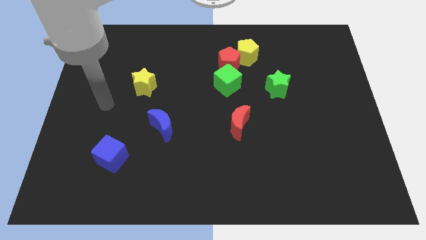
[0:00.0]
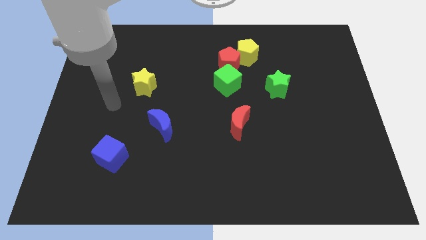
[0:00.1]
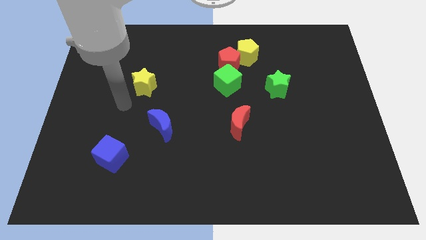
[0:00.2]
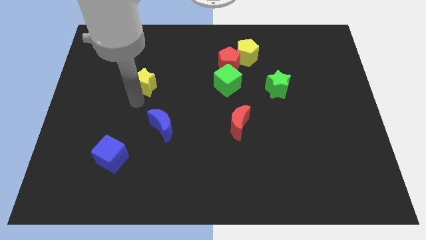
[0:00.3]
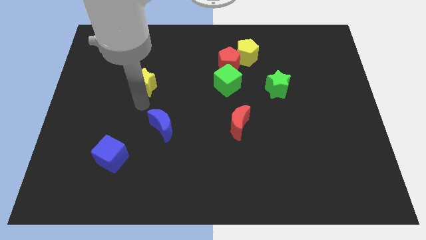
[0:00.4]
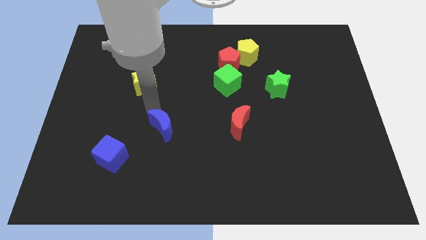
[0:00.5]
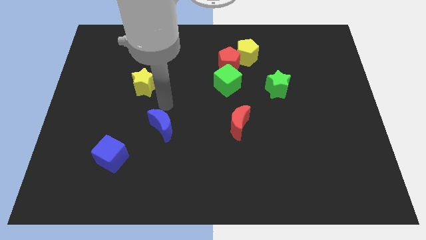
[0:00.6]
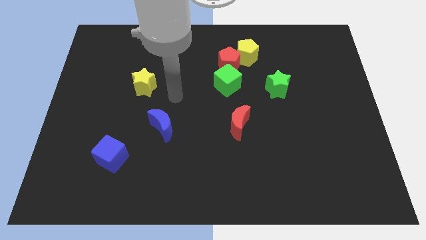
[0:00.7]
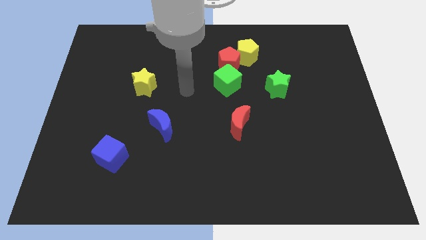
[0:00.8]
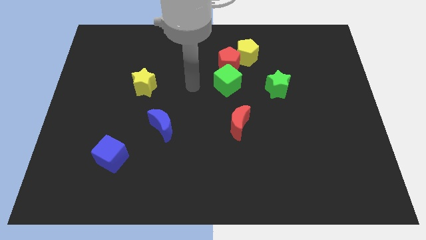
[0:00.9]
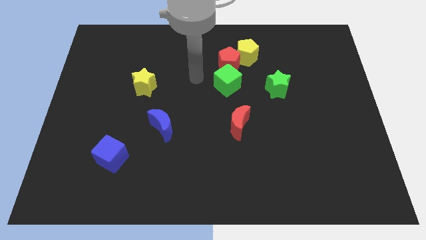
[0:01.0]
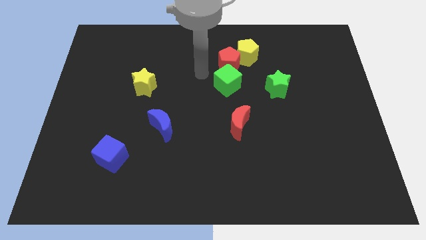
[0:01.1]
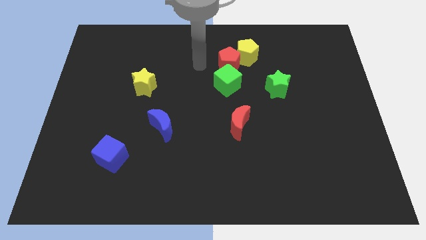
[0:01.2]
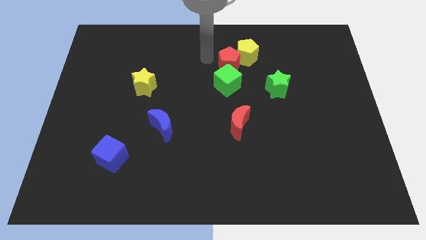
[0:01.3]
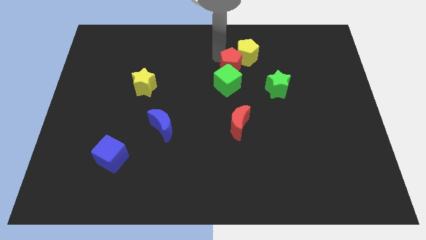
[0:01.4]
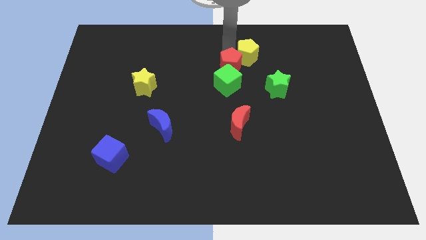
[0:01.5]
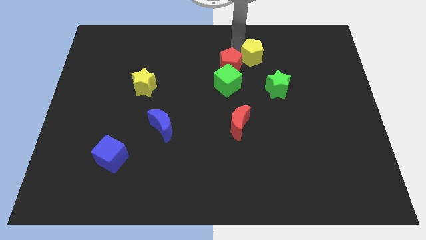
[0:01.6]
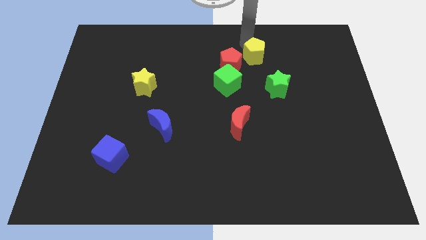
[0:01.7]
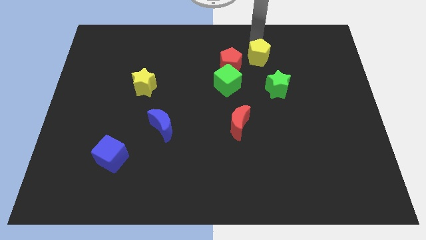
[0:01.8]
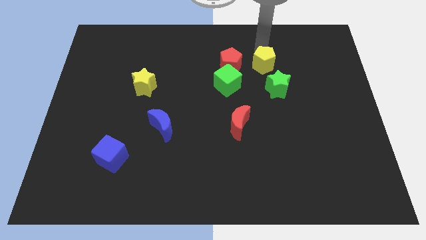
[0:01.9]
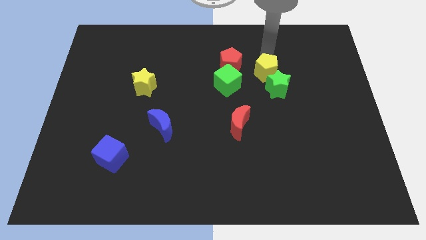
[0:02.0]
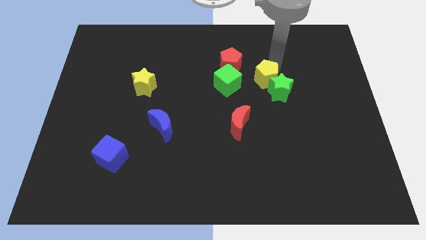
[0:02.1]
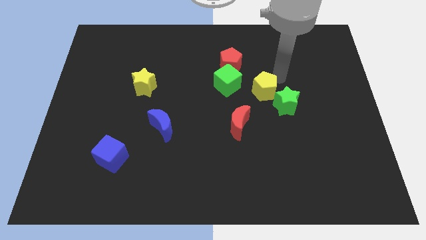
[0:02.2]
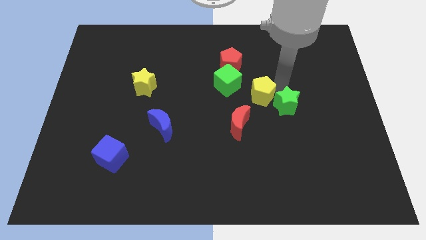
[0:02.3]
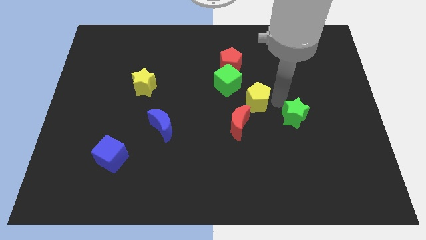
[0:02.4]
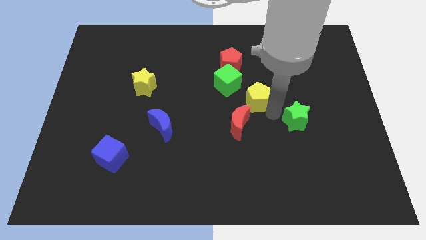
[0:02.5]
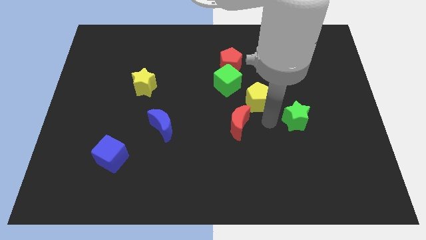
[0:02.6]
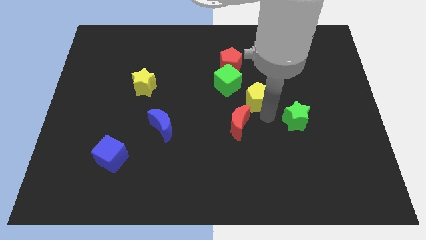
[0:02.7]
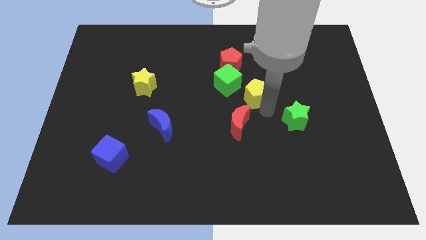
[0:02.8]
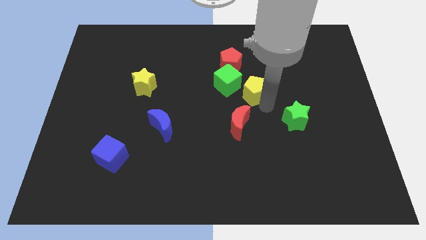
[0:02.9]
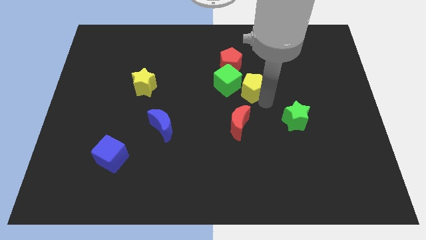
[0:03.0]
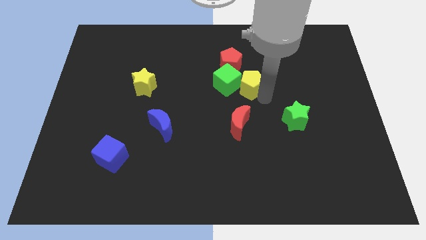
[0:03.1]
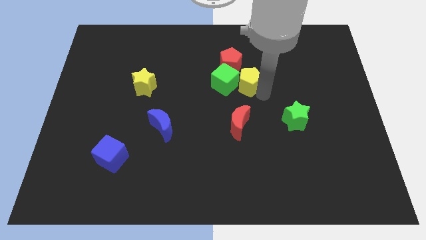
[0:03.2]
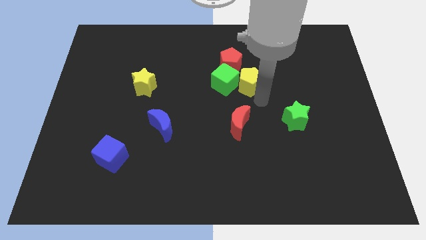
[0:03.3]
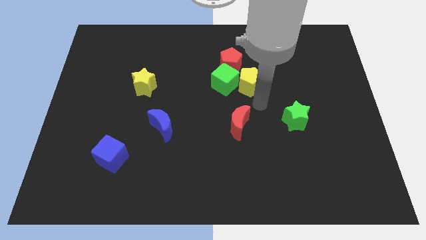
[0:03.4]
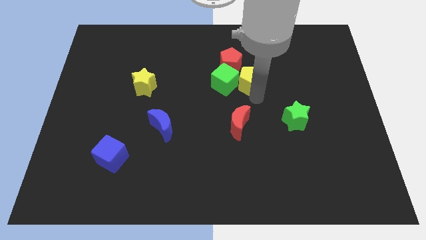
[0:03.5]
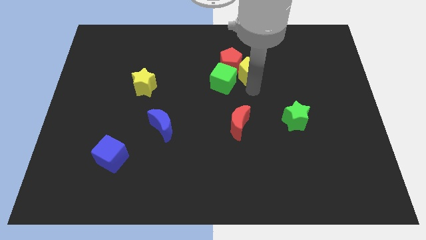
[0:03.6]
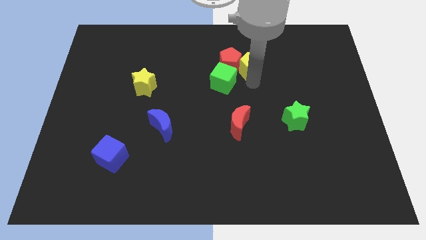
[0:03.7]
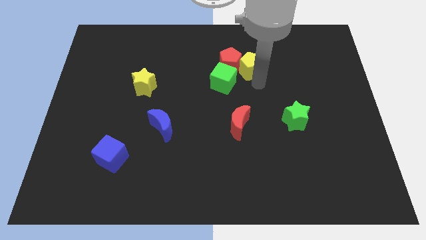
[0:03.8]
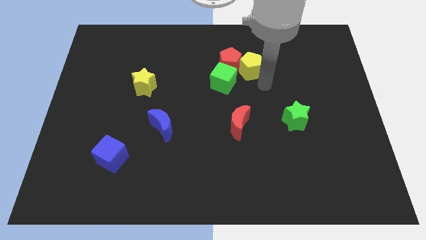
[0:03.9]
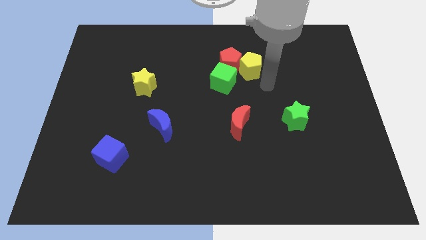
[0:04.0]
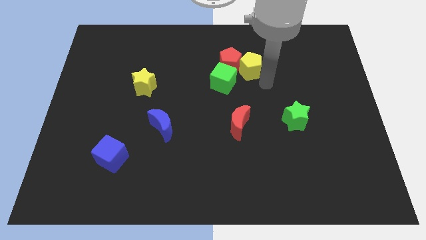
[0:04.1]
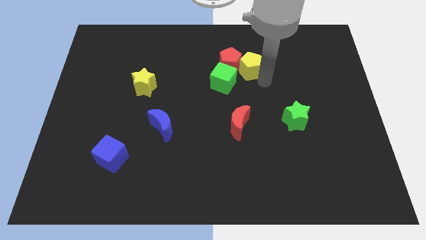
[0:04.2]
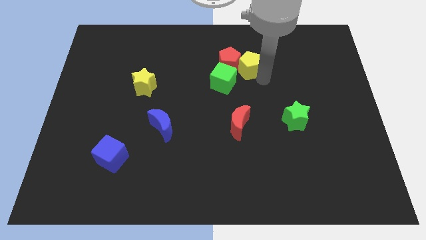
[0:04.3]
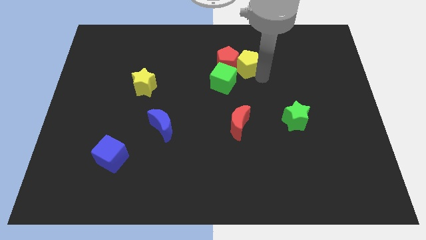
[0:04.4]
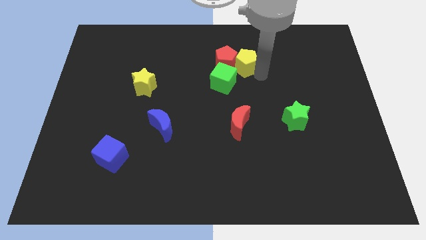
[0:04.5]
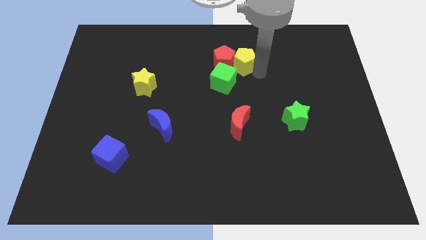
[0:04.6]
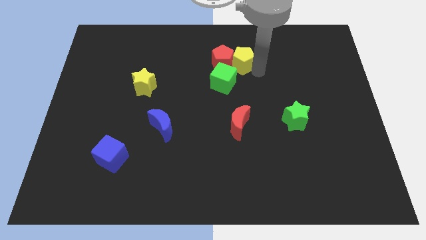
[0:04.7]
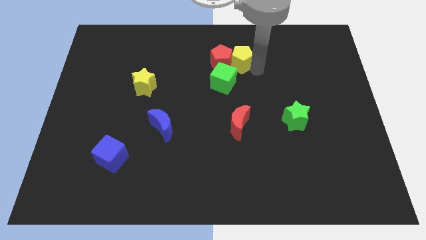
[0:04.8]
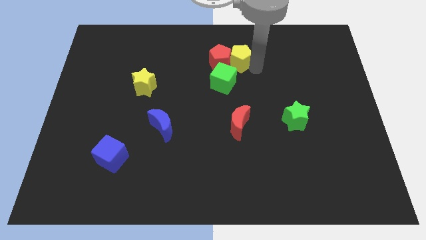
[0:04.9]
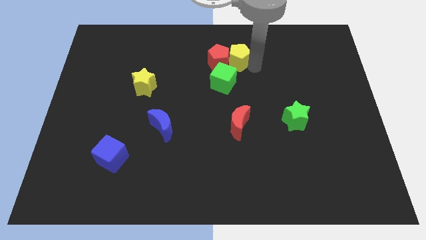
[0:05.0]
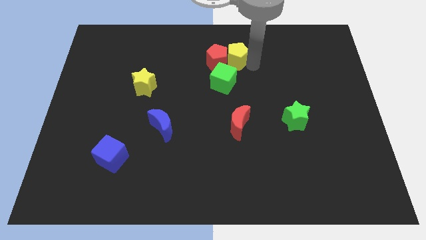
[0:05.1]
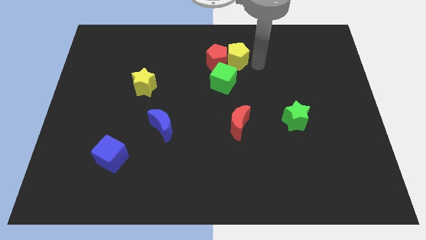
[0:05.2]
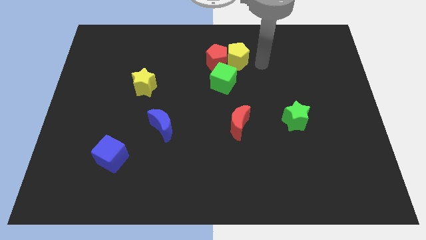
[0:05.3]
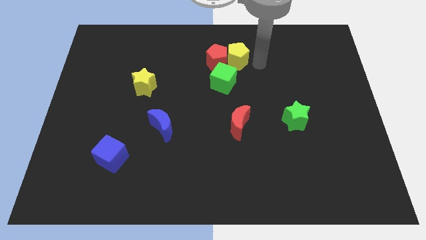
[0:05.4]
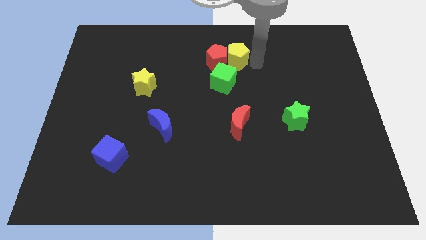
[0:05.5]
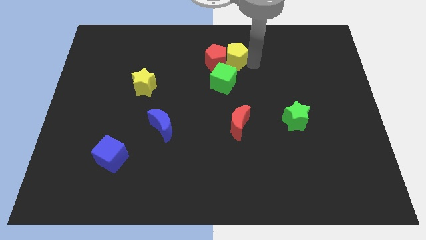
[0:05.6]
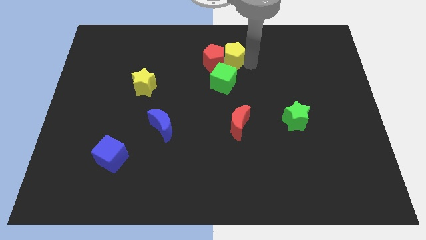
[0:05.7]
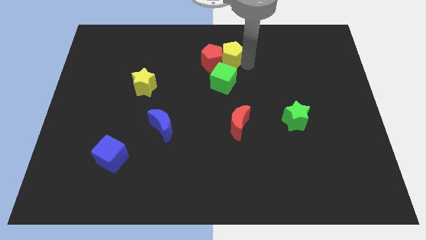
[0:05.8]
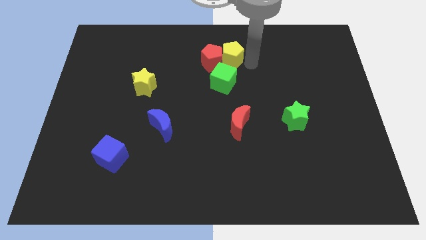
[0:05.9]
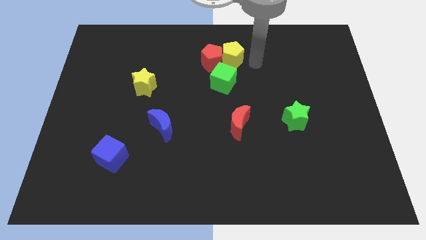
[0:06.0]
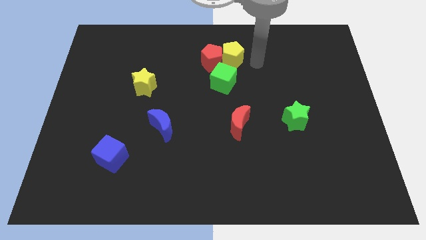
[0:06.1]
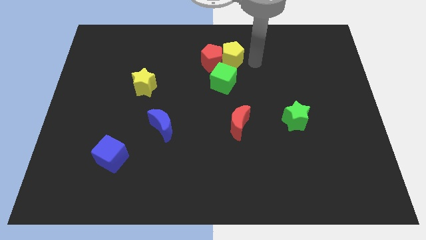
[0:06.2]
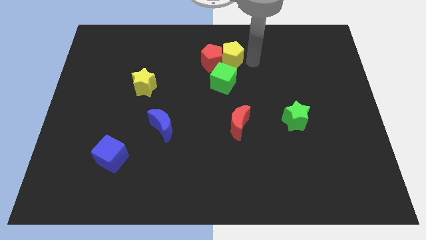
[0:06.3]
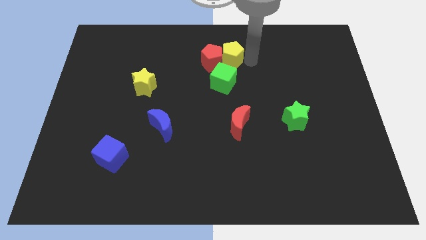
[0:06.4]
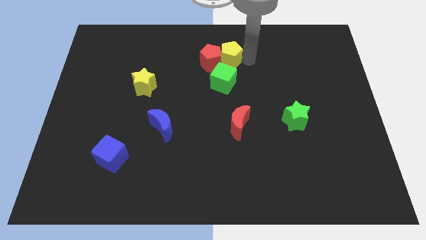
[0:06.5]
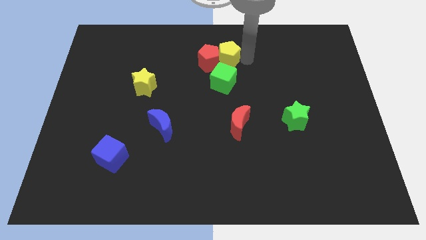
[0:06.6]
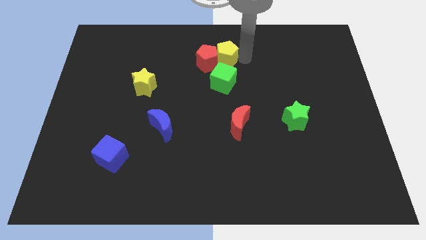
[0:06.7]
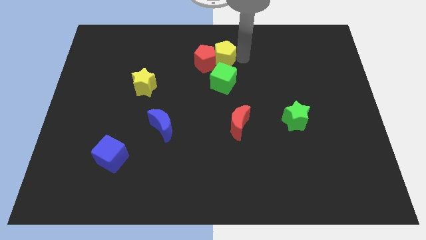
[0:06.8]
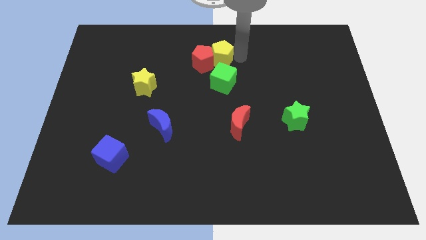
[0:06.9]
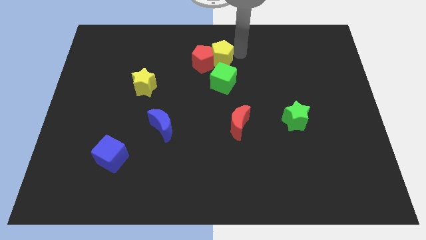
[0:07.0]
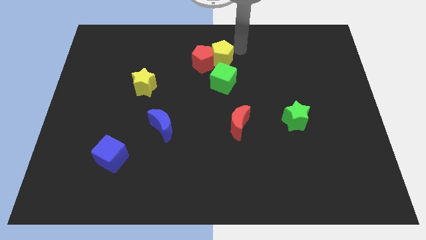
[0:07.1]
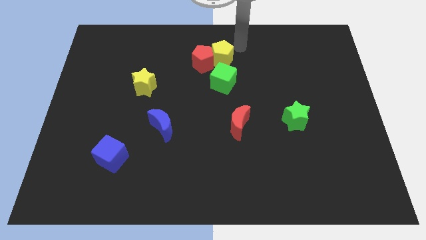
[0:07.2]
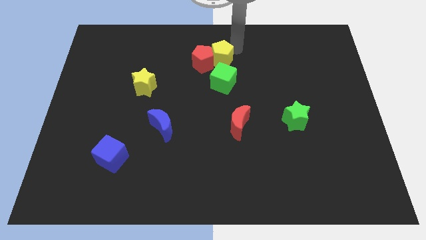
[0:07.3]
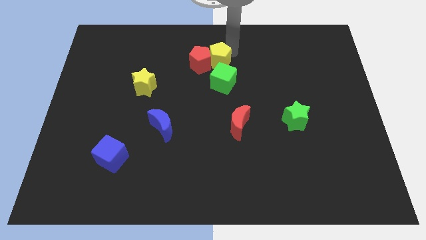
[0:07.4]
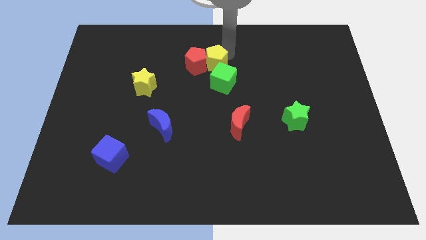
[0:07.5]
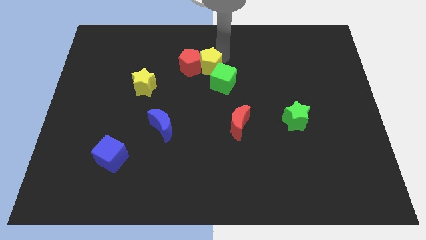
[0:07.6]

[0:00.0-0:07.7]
slide the yellow pentagon a bit down and left diagonally

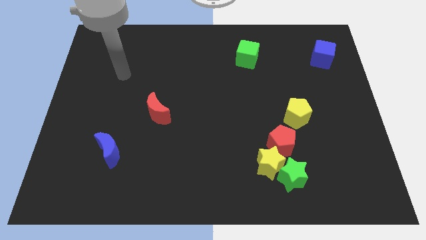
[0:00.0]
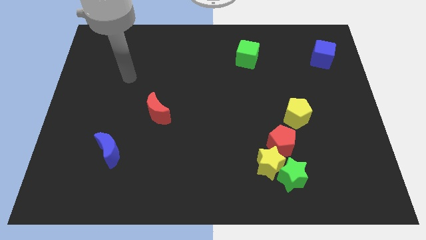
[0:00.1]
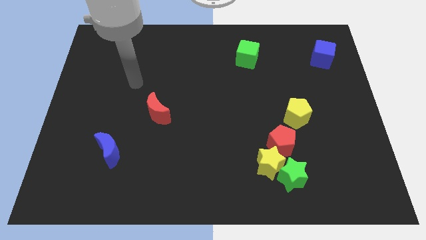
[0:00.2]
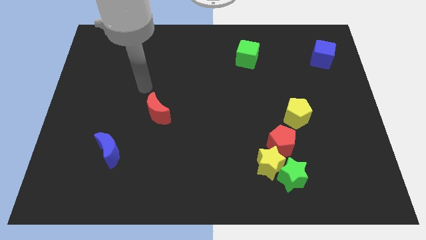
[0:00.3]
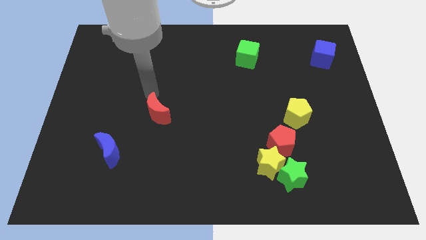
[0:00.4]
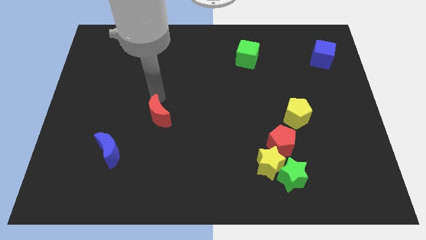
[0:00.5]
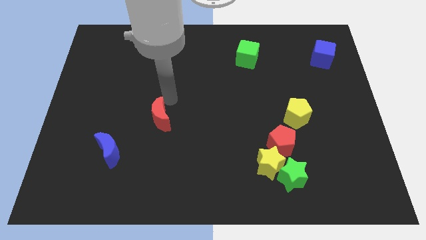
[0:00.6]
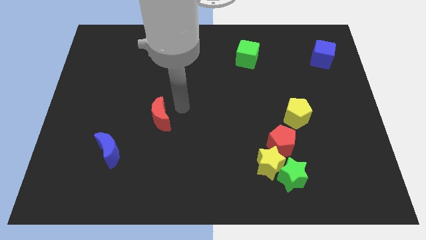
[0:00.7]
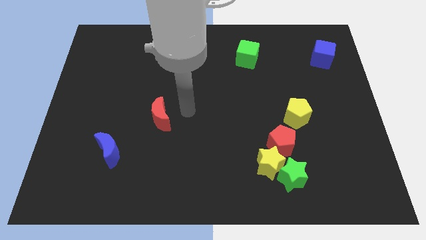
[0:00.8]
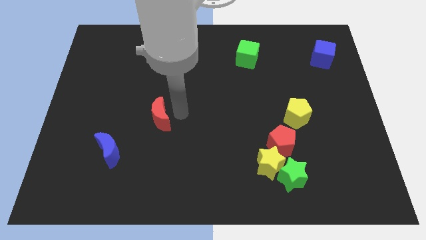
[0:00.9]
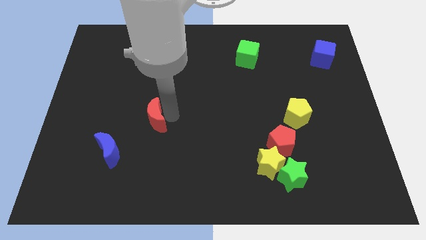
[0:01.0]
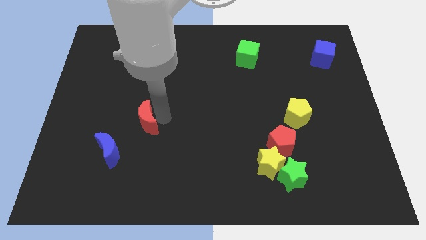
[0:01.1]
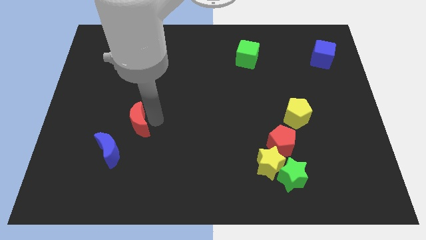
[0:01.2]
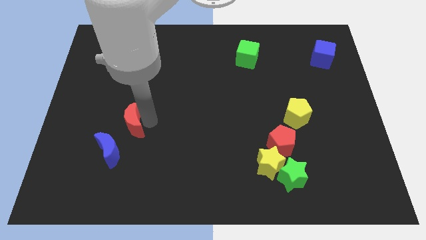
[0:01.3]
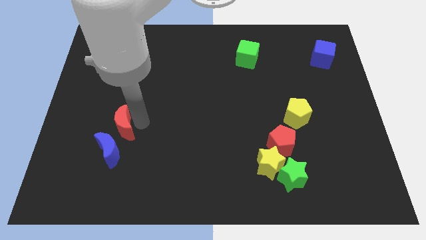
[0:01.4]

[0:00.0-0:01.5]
move the red moon a bit diagonally down and left
